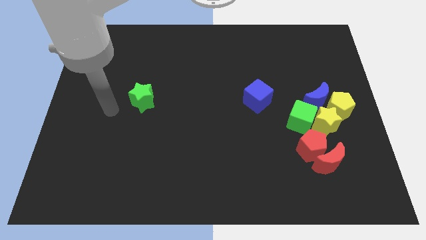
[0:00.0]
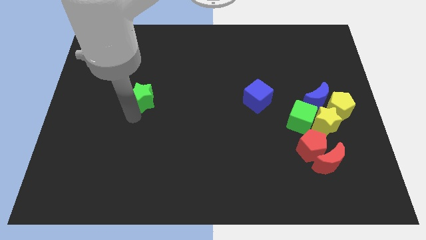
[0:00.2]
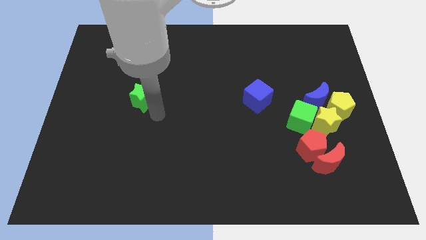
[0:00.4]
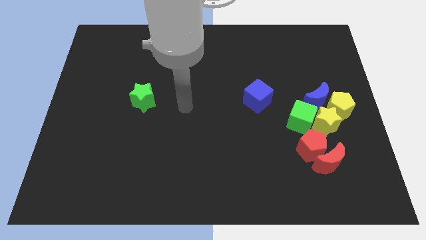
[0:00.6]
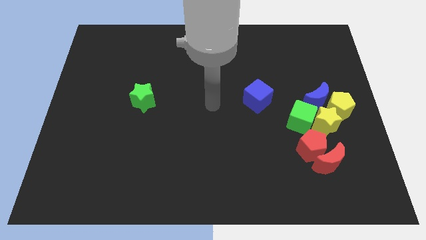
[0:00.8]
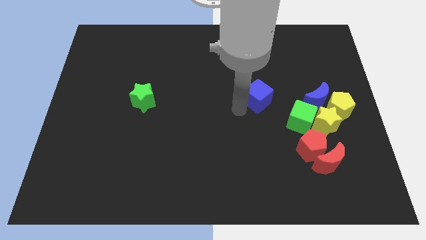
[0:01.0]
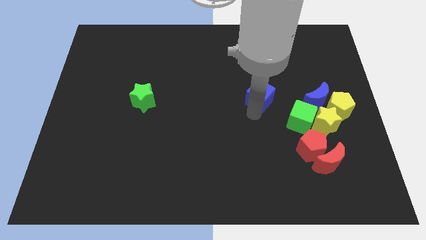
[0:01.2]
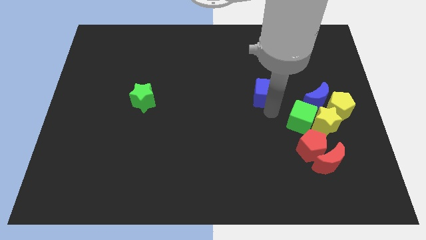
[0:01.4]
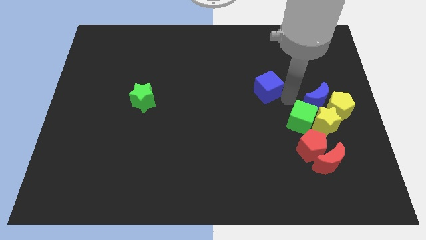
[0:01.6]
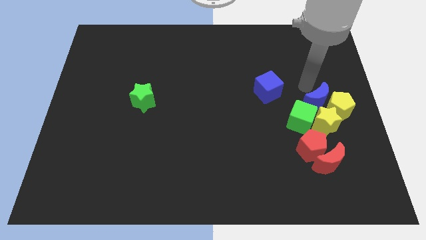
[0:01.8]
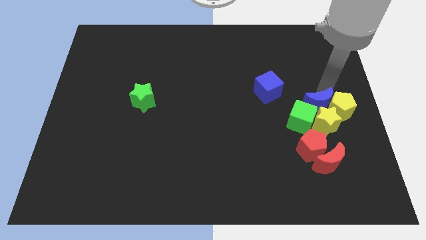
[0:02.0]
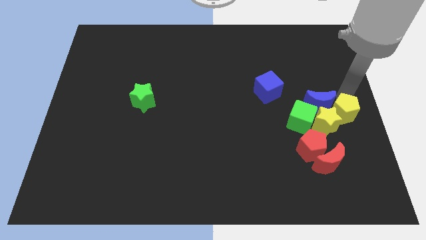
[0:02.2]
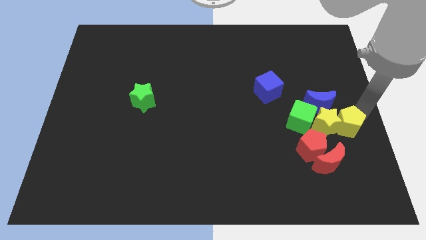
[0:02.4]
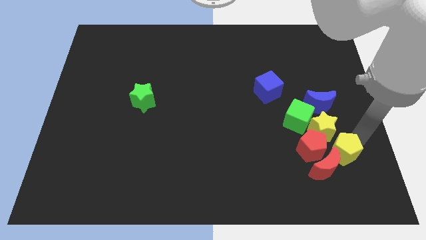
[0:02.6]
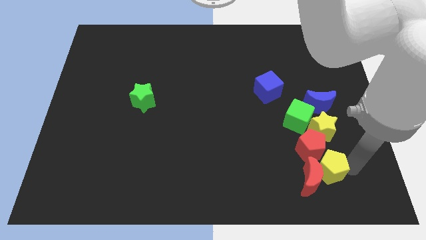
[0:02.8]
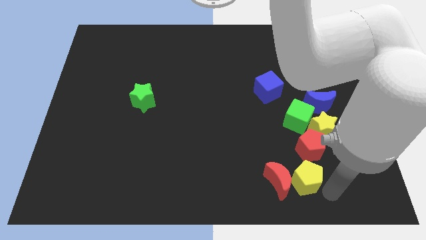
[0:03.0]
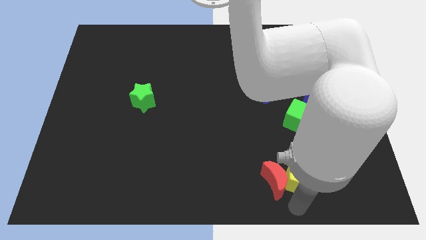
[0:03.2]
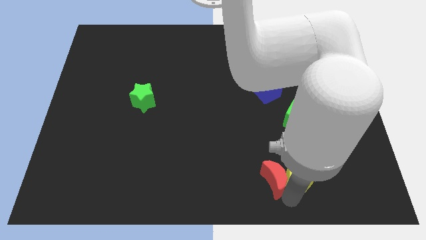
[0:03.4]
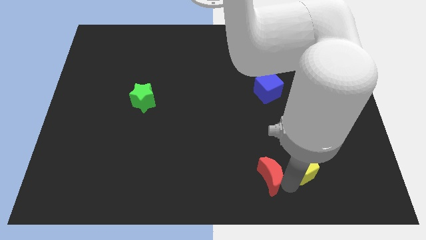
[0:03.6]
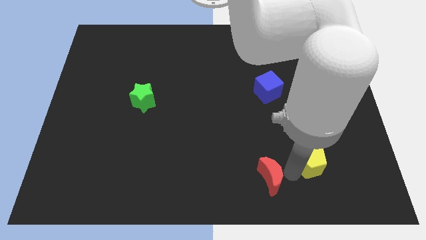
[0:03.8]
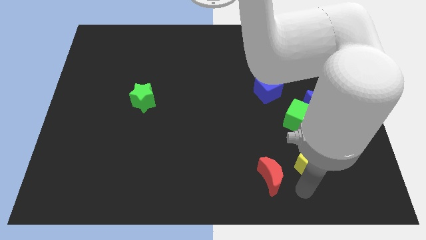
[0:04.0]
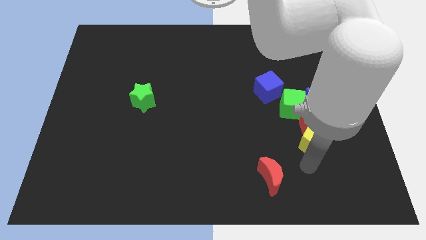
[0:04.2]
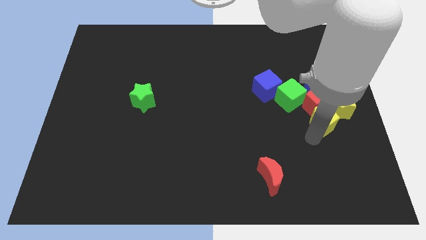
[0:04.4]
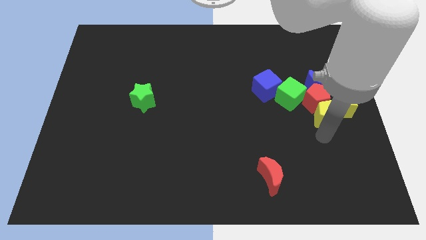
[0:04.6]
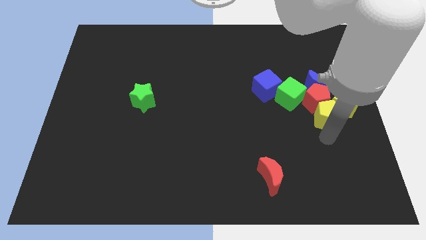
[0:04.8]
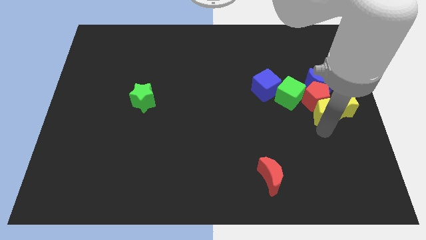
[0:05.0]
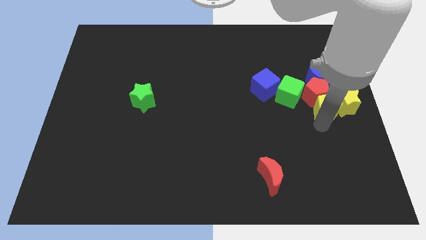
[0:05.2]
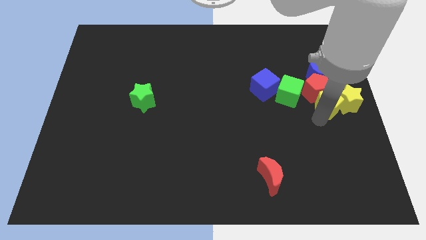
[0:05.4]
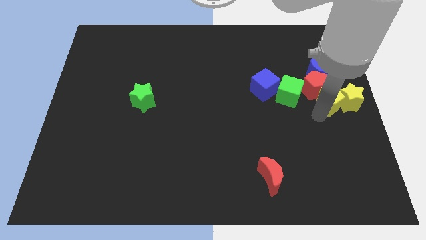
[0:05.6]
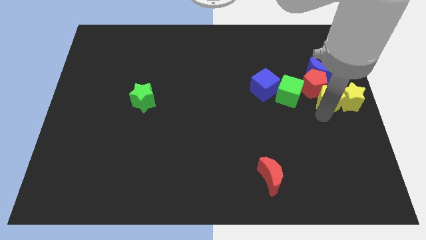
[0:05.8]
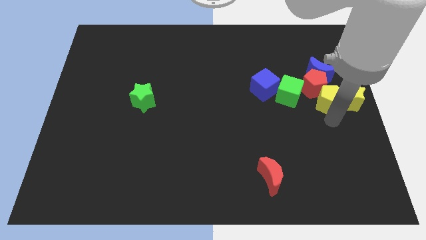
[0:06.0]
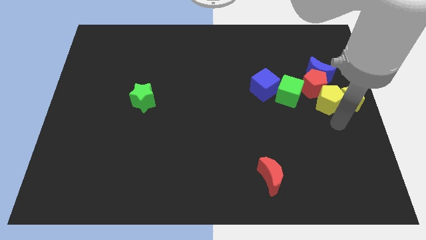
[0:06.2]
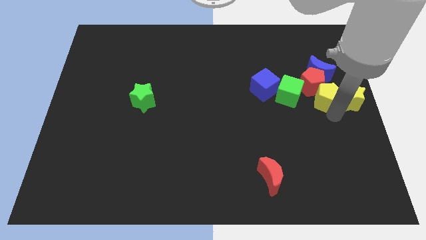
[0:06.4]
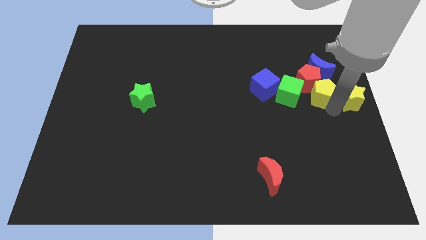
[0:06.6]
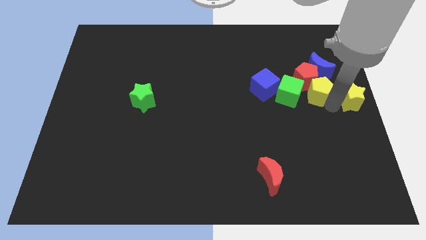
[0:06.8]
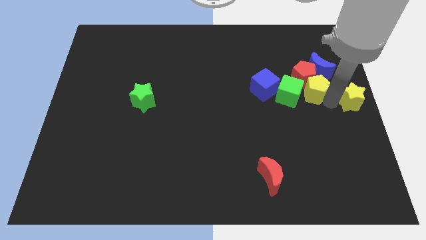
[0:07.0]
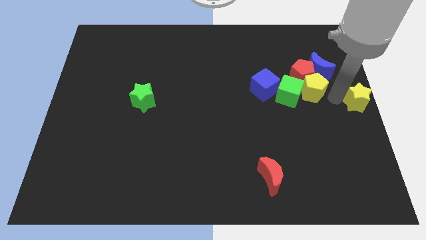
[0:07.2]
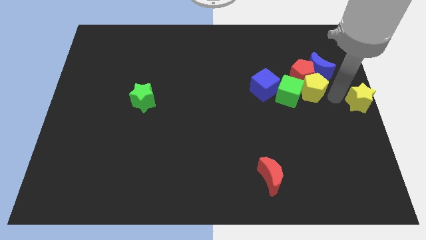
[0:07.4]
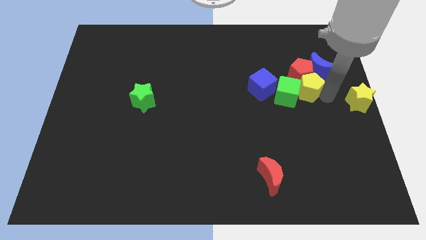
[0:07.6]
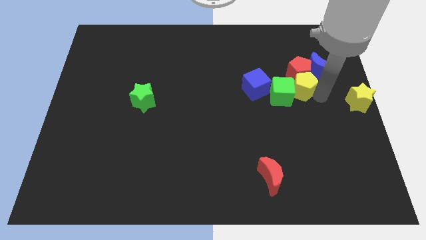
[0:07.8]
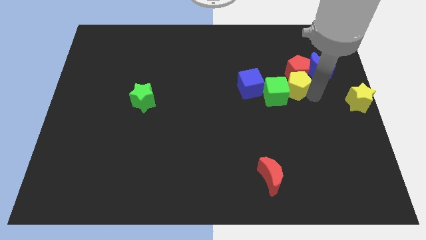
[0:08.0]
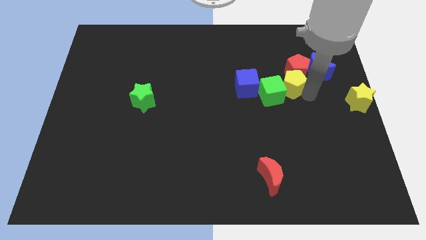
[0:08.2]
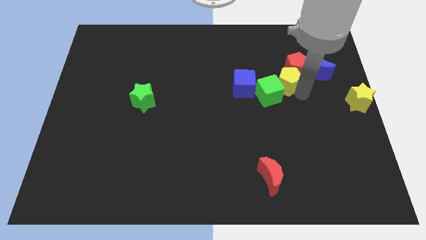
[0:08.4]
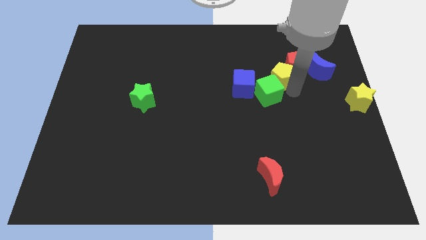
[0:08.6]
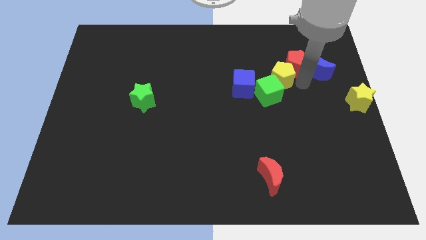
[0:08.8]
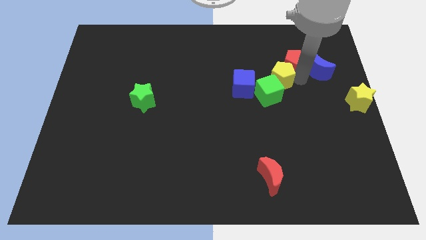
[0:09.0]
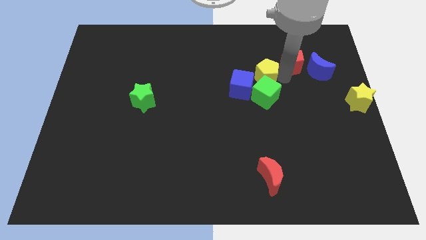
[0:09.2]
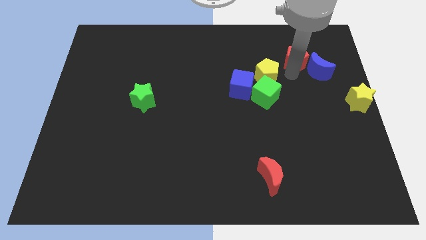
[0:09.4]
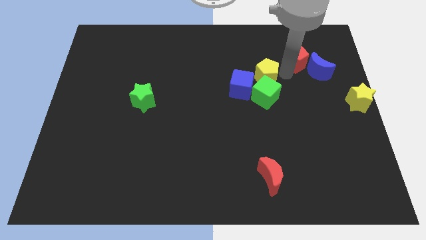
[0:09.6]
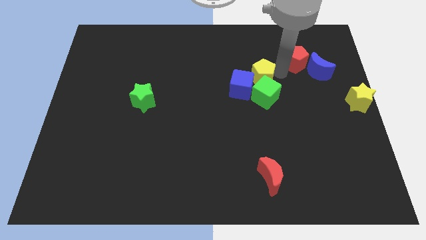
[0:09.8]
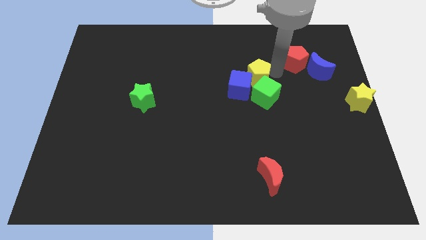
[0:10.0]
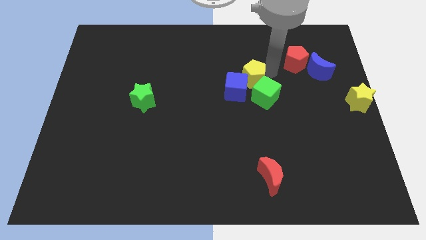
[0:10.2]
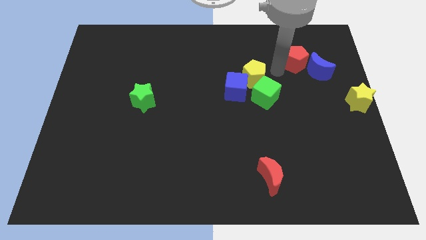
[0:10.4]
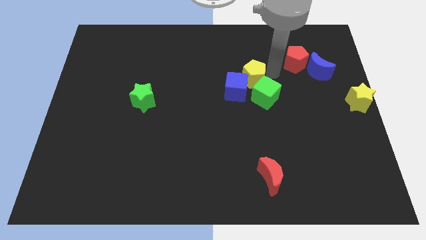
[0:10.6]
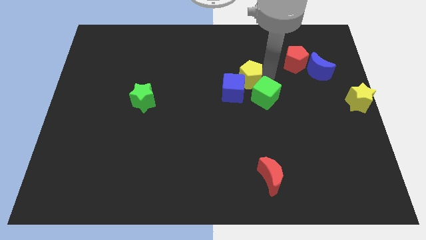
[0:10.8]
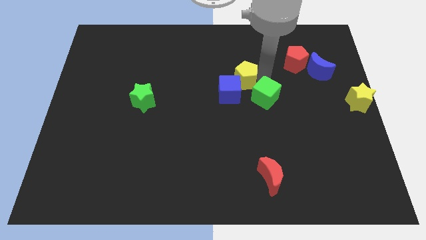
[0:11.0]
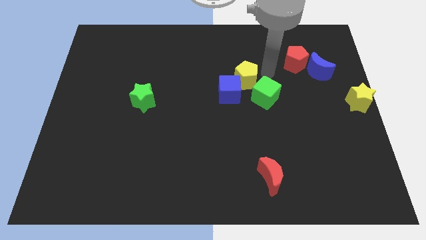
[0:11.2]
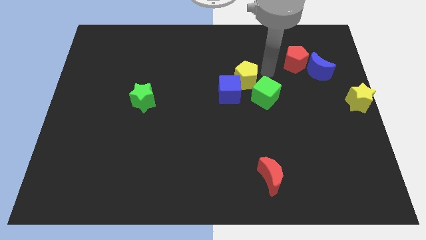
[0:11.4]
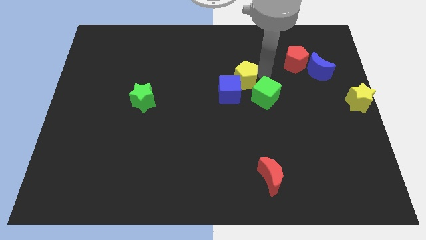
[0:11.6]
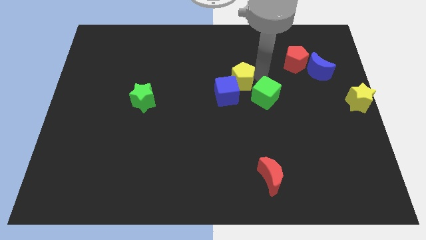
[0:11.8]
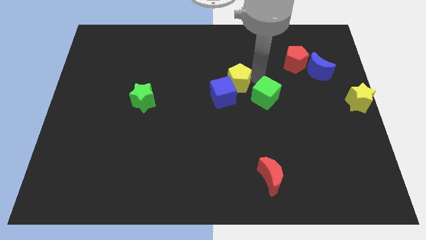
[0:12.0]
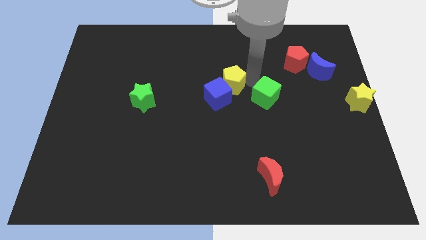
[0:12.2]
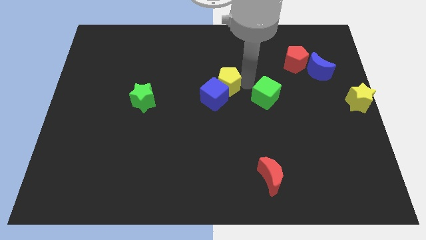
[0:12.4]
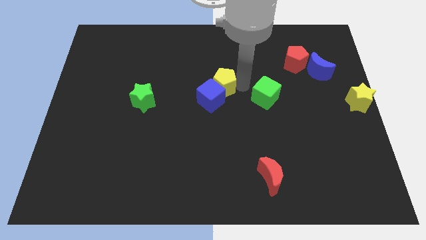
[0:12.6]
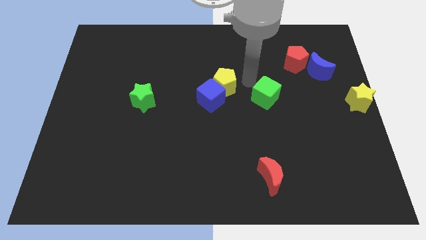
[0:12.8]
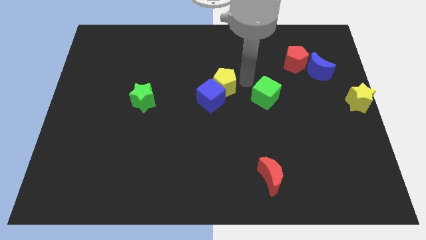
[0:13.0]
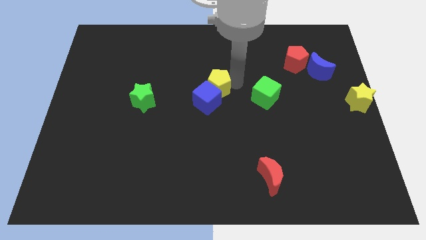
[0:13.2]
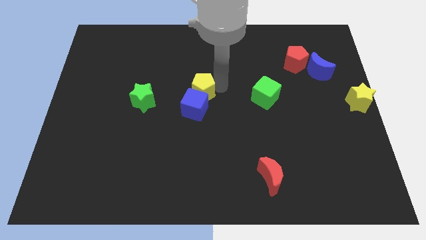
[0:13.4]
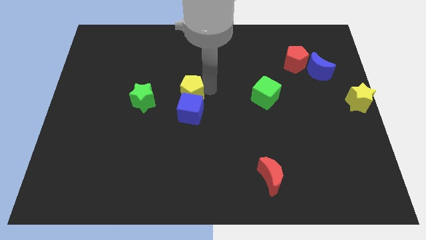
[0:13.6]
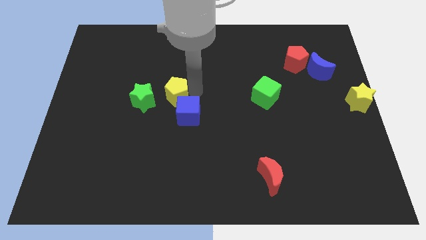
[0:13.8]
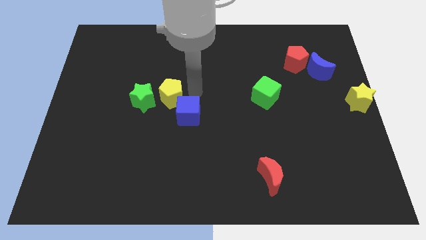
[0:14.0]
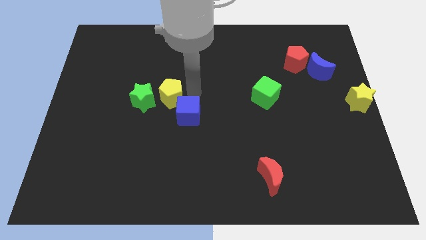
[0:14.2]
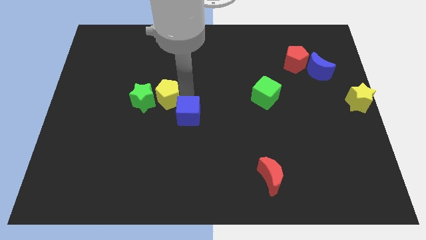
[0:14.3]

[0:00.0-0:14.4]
slide the yellow pentagon towards the green star

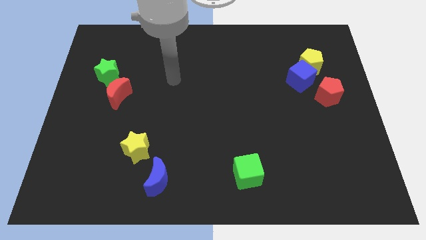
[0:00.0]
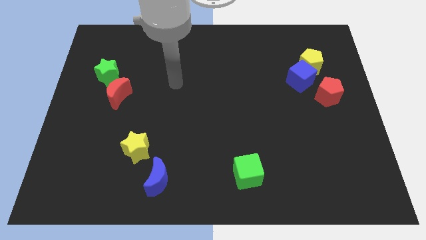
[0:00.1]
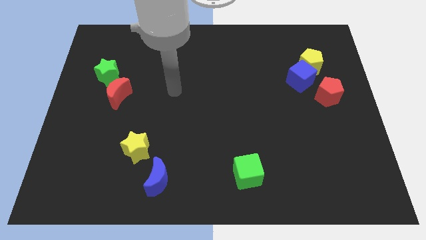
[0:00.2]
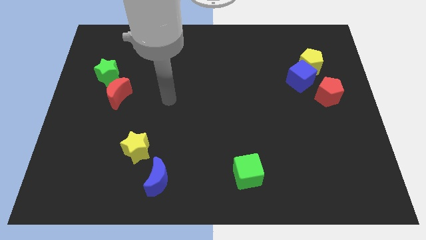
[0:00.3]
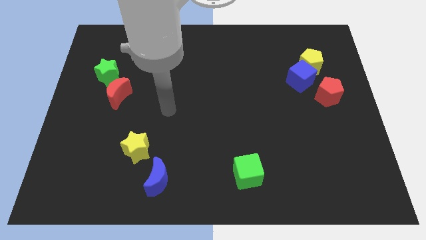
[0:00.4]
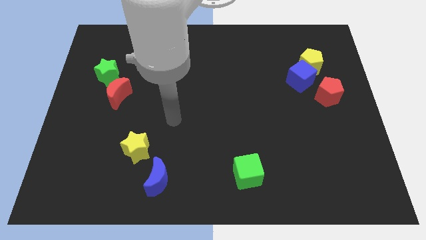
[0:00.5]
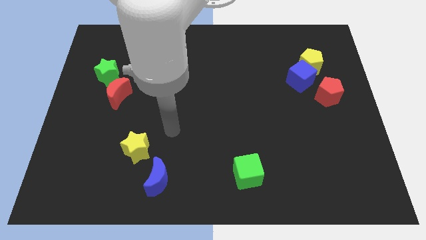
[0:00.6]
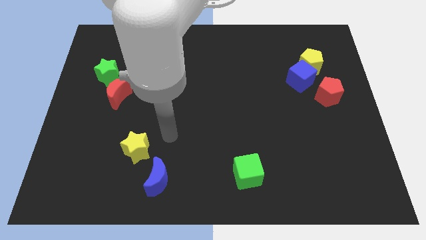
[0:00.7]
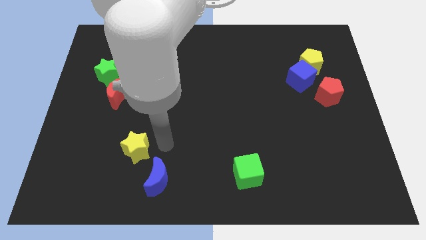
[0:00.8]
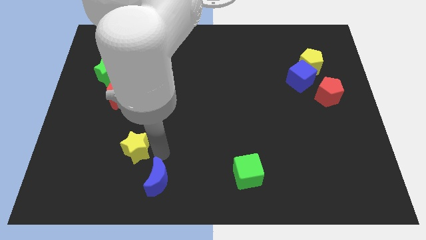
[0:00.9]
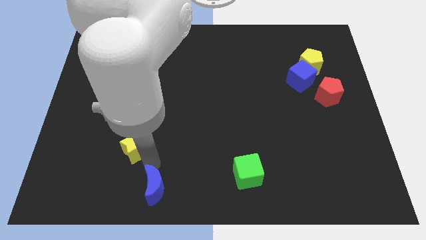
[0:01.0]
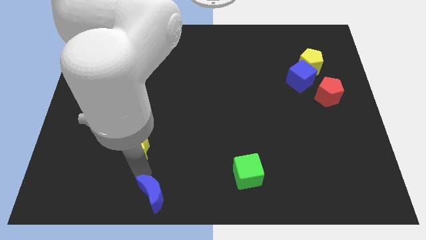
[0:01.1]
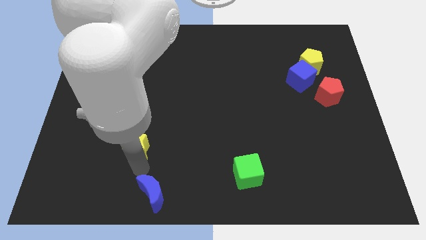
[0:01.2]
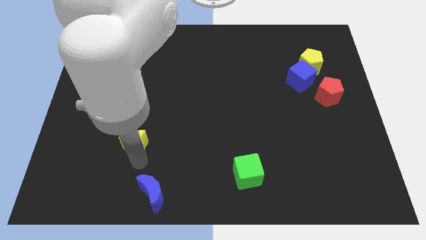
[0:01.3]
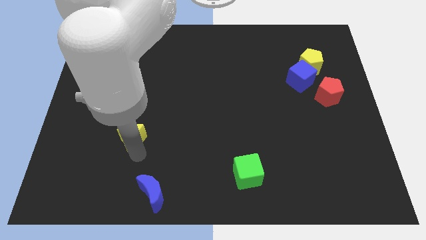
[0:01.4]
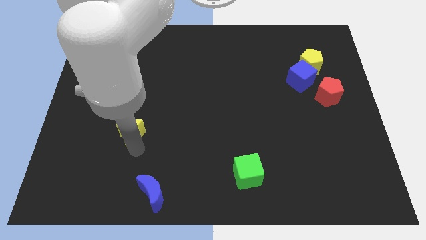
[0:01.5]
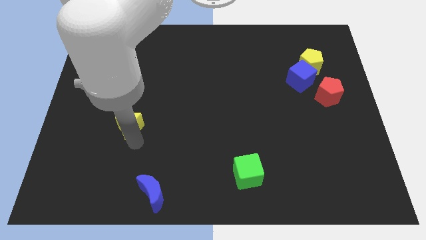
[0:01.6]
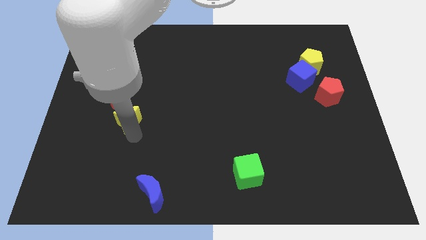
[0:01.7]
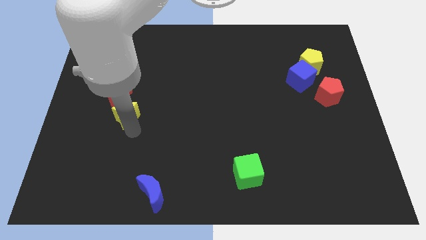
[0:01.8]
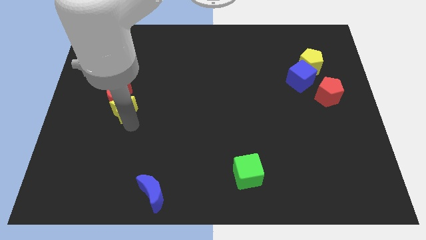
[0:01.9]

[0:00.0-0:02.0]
slide the yellow star to the red moon
